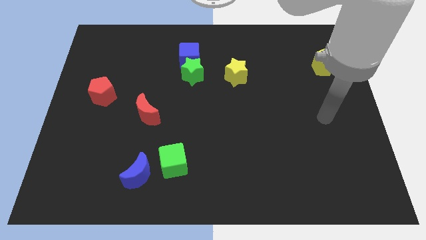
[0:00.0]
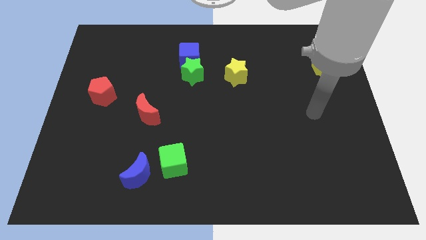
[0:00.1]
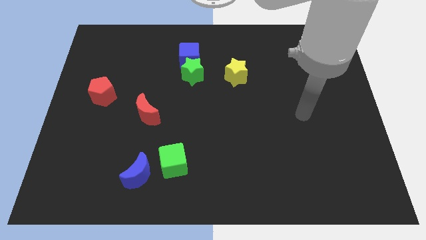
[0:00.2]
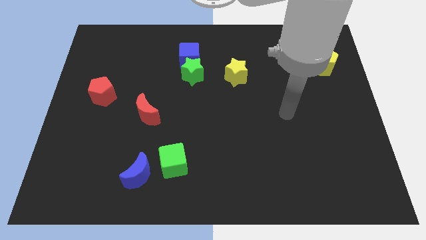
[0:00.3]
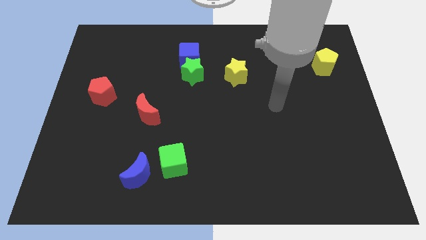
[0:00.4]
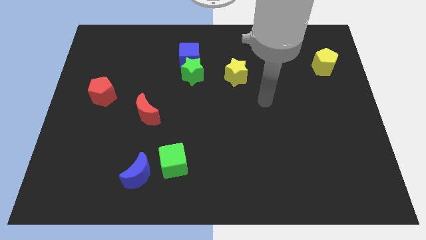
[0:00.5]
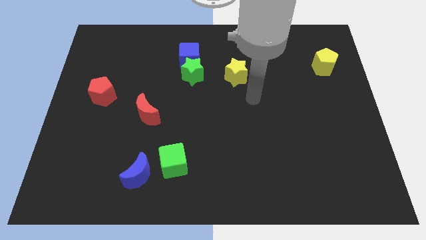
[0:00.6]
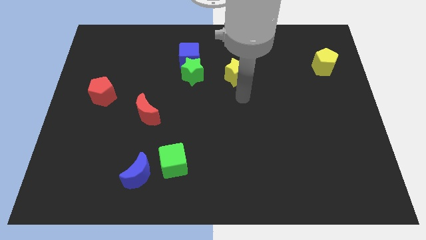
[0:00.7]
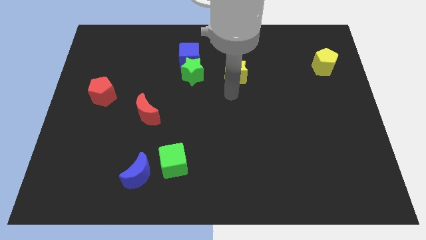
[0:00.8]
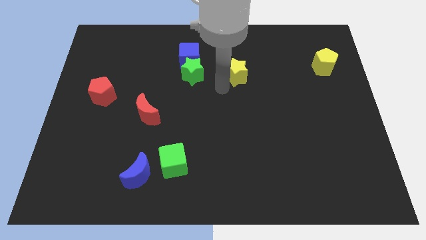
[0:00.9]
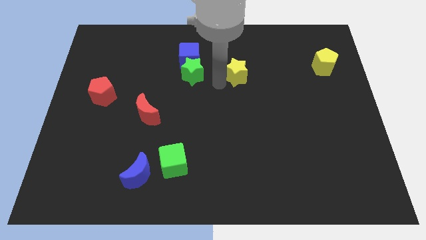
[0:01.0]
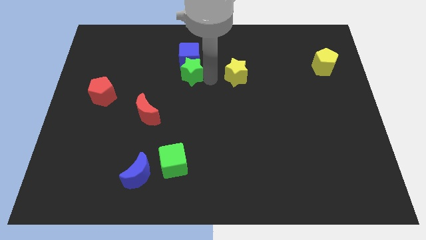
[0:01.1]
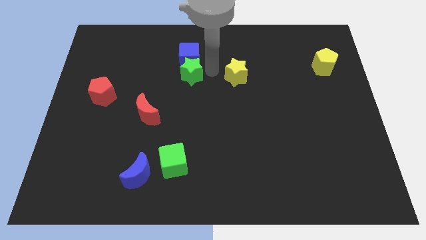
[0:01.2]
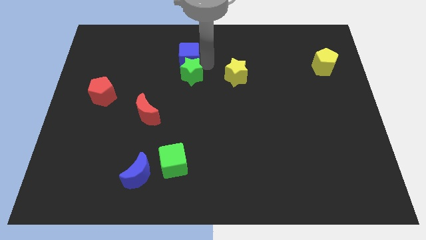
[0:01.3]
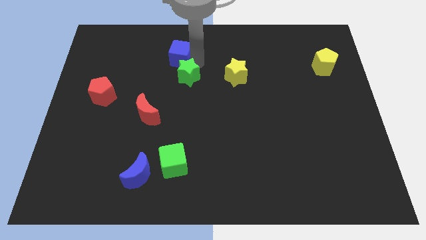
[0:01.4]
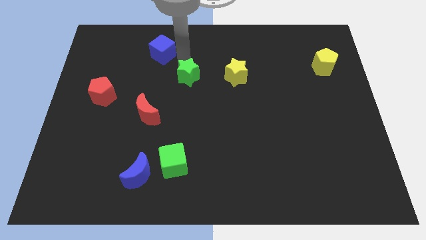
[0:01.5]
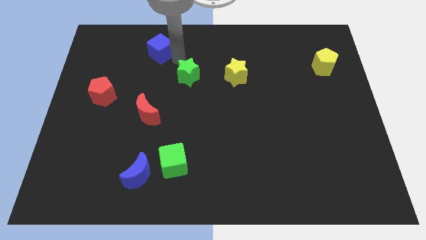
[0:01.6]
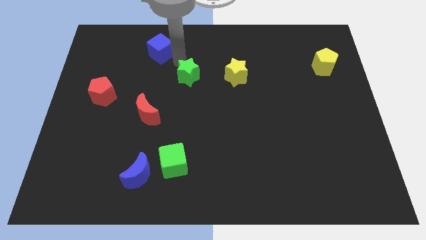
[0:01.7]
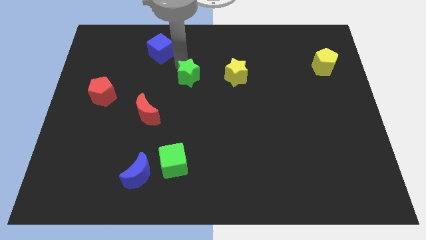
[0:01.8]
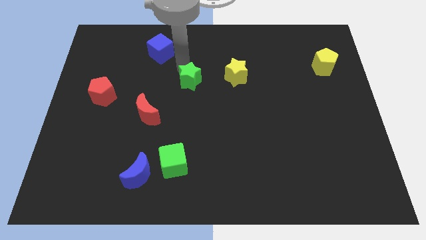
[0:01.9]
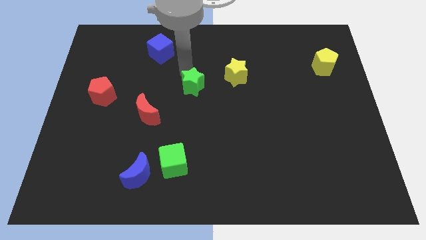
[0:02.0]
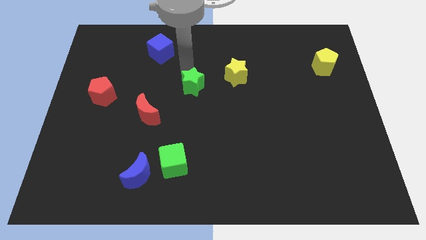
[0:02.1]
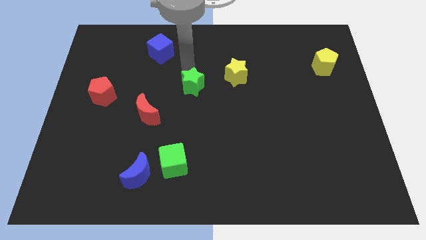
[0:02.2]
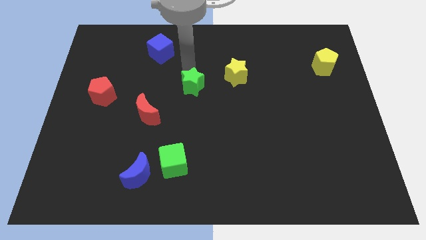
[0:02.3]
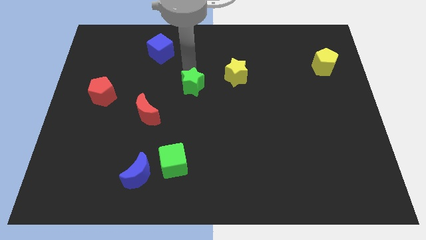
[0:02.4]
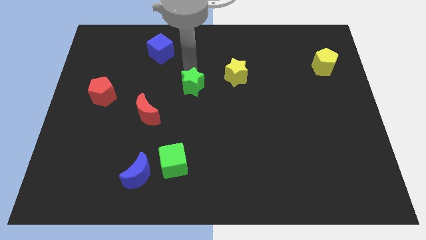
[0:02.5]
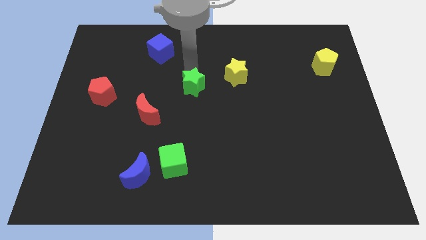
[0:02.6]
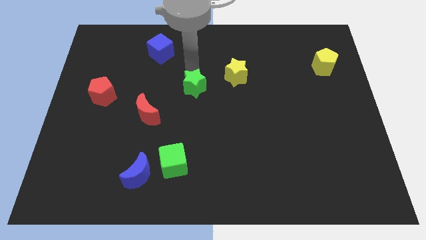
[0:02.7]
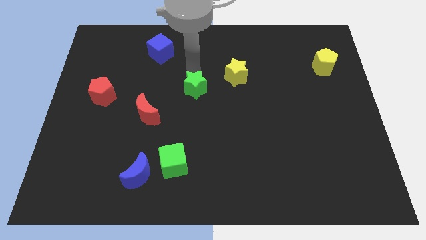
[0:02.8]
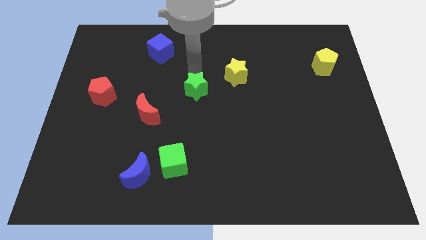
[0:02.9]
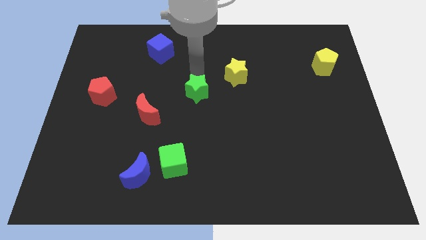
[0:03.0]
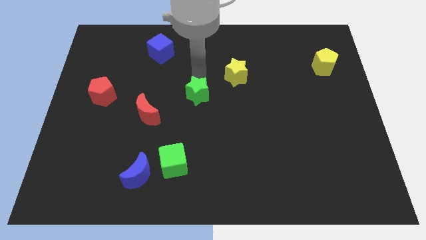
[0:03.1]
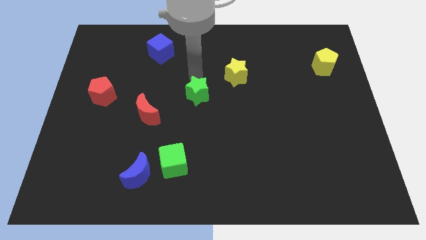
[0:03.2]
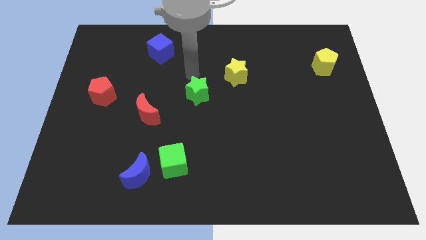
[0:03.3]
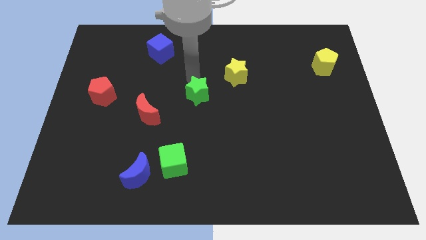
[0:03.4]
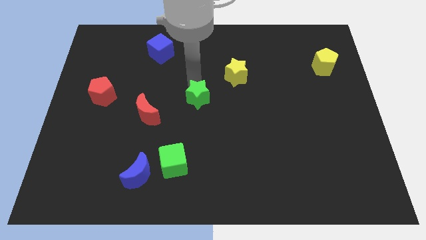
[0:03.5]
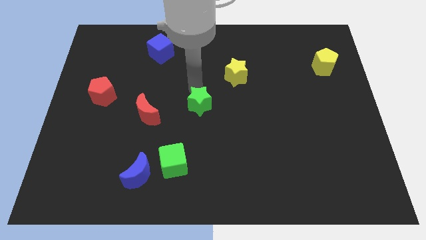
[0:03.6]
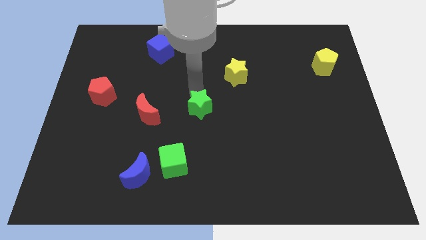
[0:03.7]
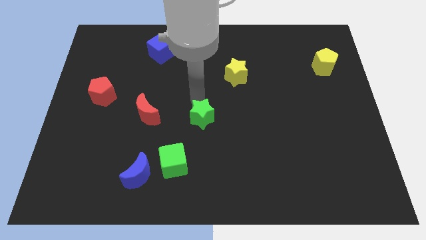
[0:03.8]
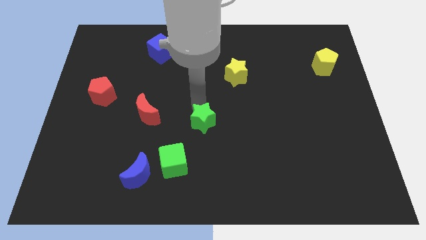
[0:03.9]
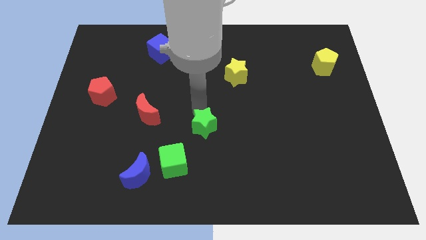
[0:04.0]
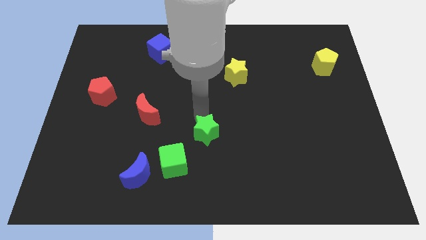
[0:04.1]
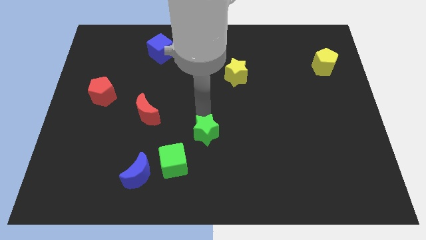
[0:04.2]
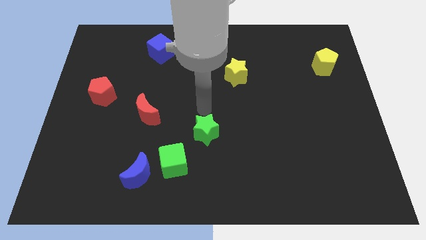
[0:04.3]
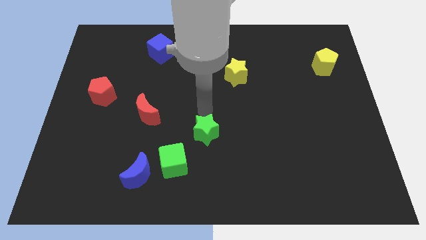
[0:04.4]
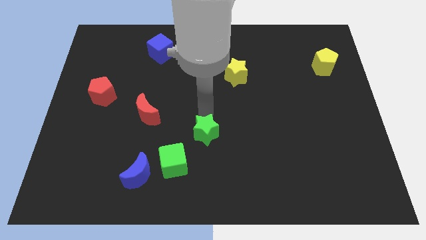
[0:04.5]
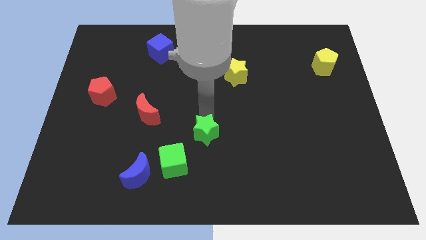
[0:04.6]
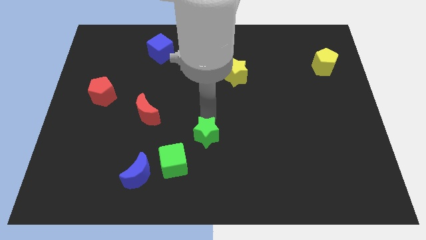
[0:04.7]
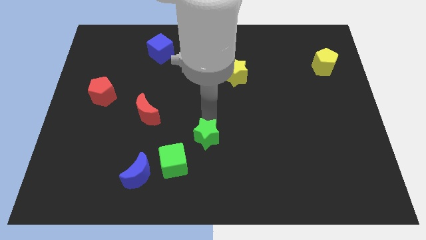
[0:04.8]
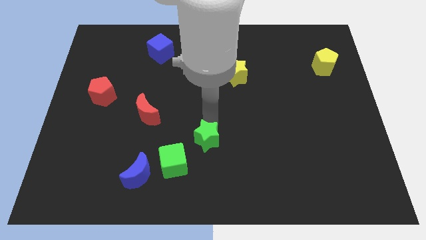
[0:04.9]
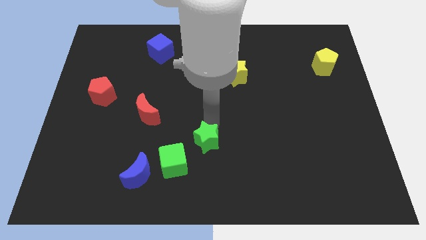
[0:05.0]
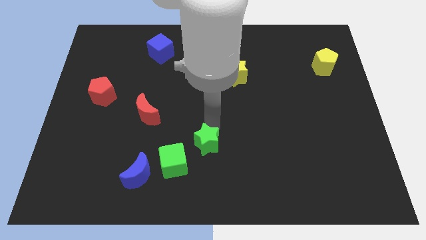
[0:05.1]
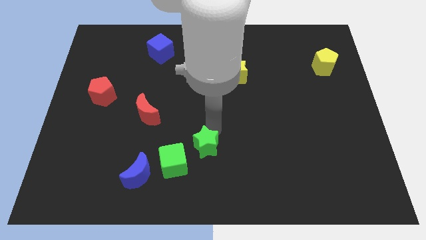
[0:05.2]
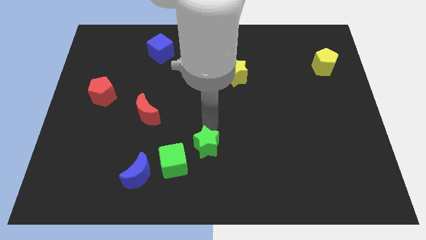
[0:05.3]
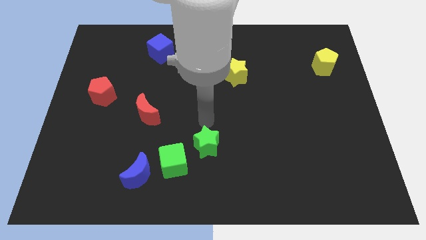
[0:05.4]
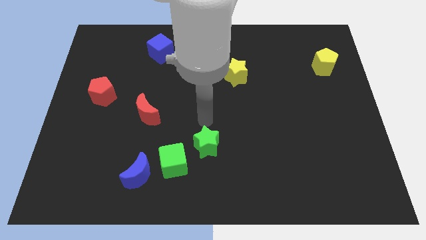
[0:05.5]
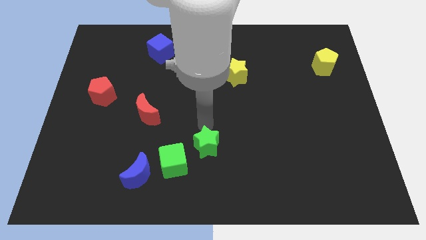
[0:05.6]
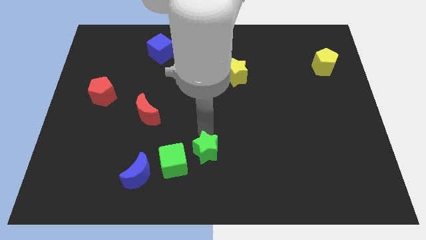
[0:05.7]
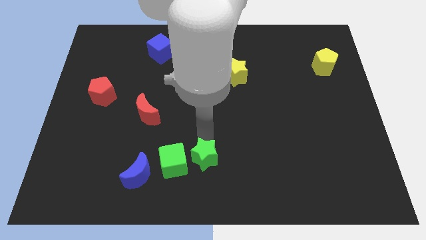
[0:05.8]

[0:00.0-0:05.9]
move the green star to the bottom side

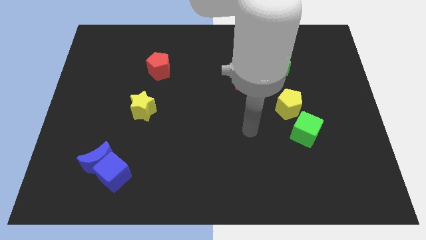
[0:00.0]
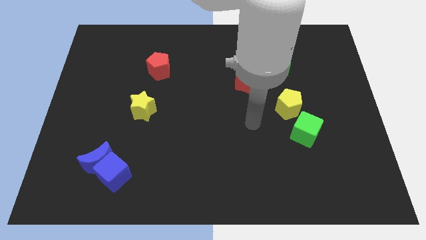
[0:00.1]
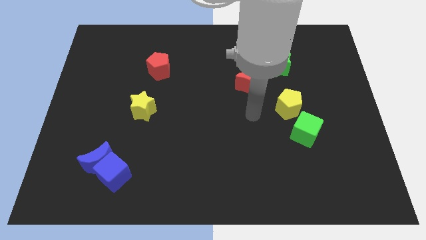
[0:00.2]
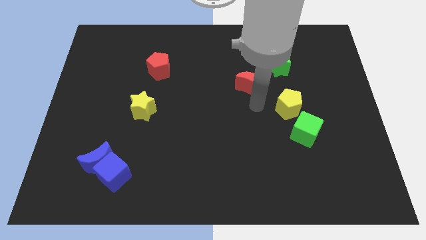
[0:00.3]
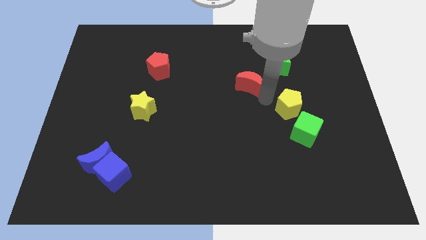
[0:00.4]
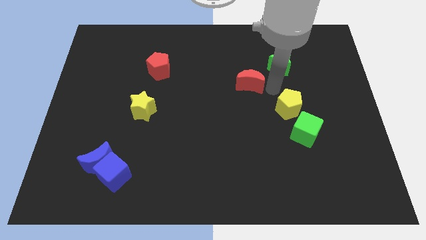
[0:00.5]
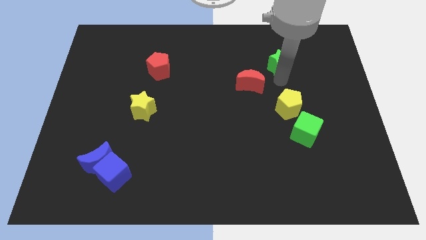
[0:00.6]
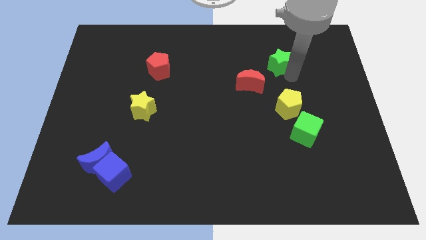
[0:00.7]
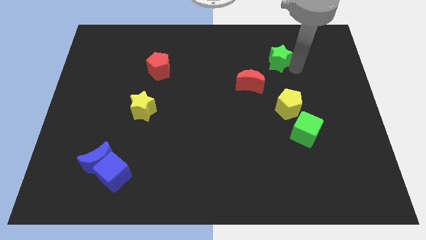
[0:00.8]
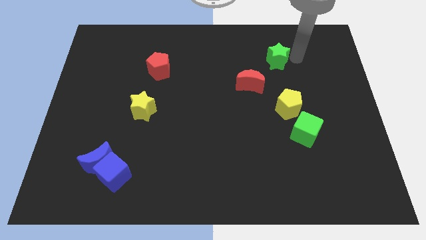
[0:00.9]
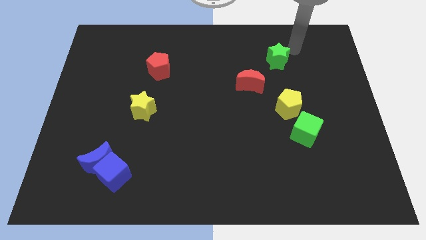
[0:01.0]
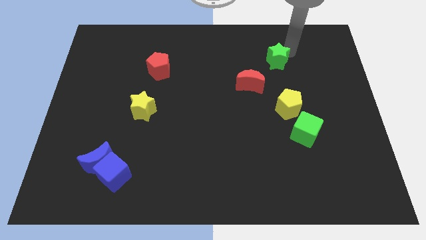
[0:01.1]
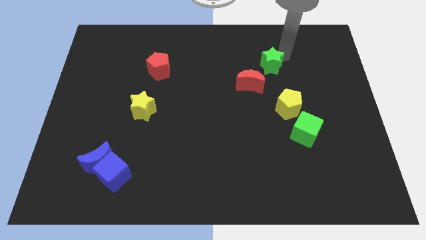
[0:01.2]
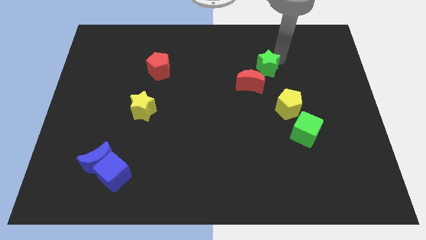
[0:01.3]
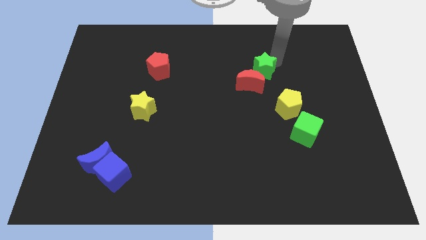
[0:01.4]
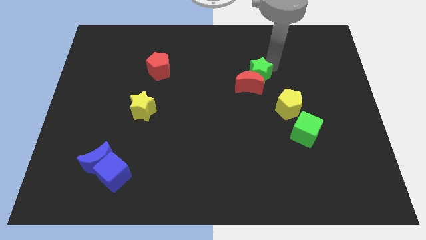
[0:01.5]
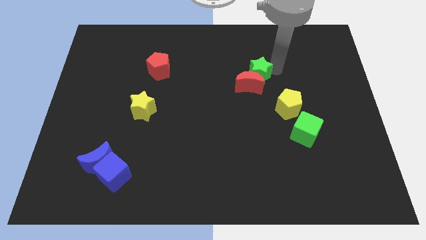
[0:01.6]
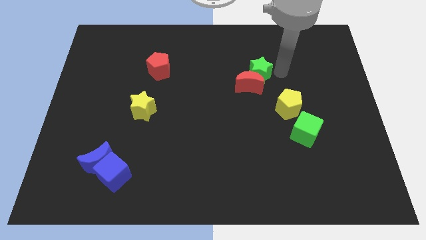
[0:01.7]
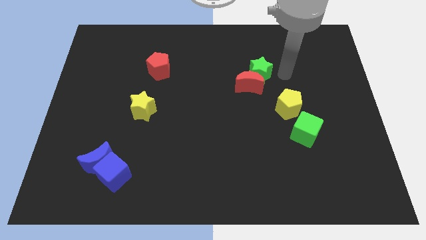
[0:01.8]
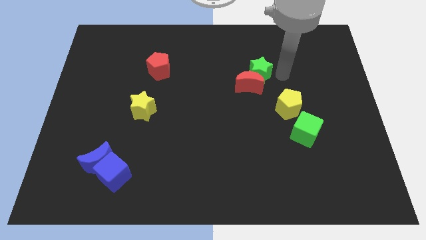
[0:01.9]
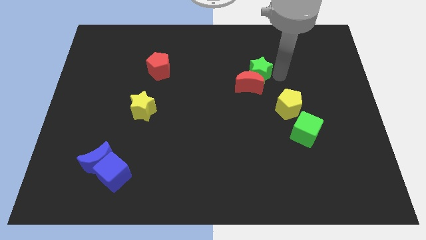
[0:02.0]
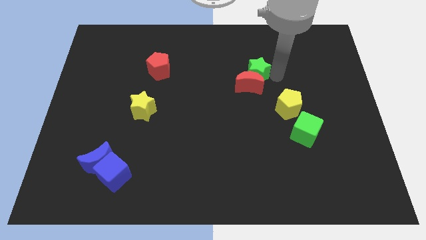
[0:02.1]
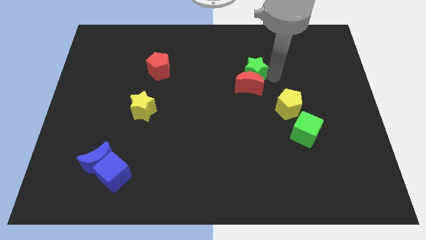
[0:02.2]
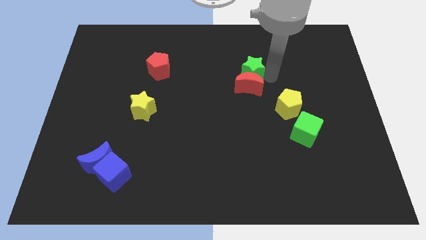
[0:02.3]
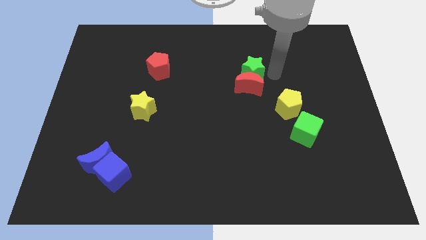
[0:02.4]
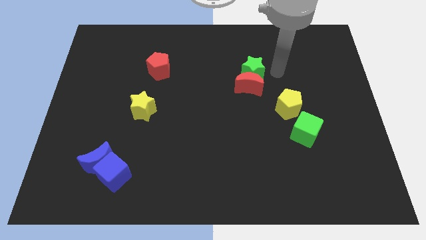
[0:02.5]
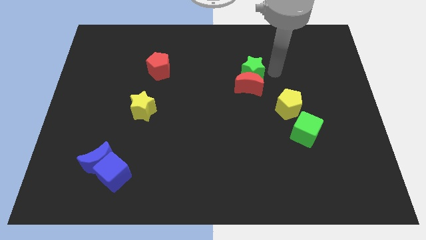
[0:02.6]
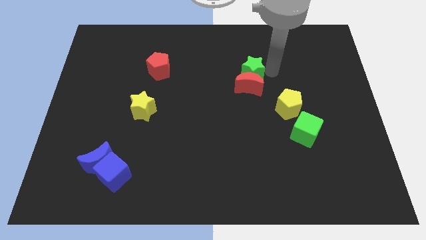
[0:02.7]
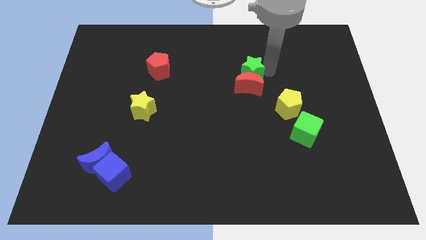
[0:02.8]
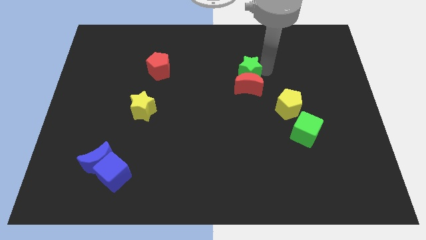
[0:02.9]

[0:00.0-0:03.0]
push the green star to the center of the board
